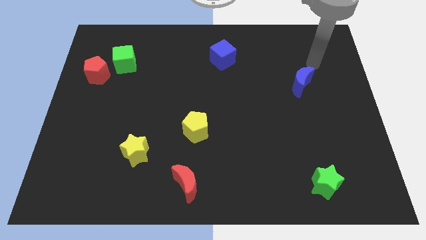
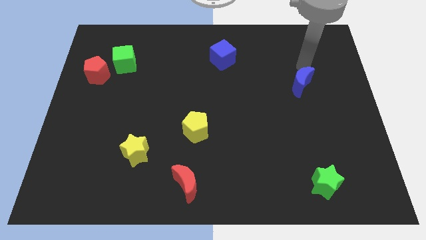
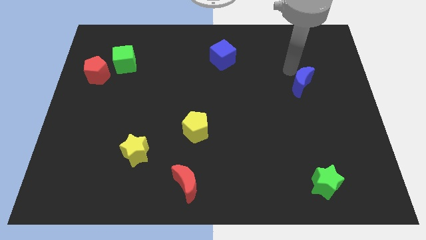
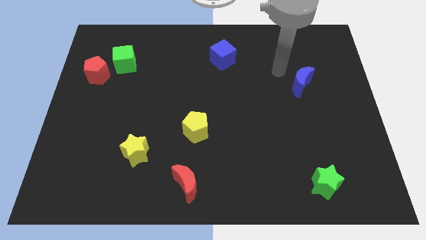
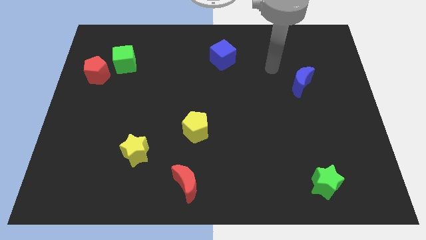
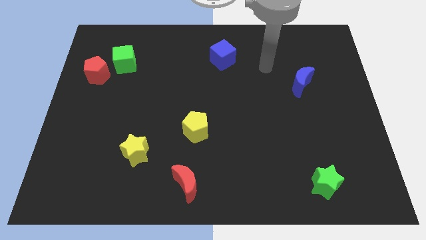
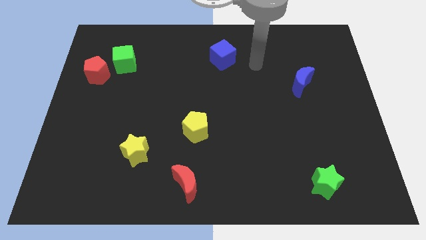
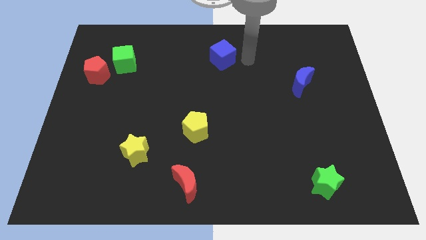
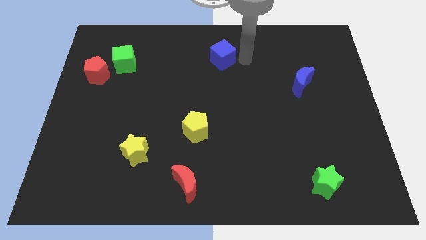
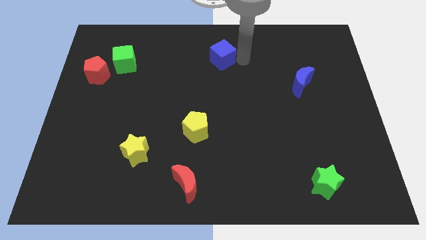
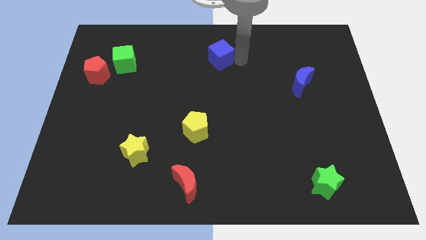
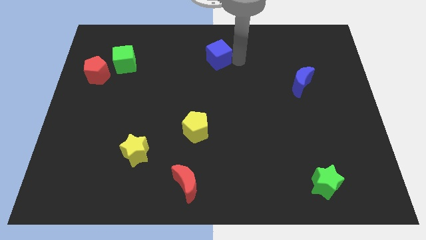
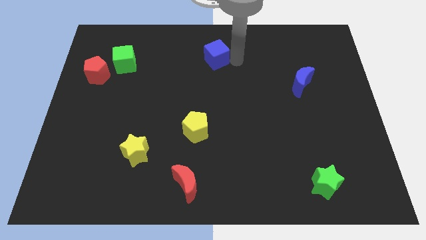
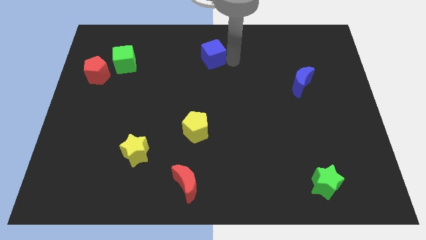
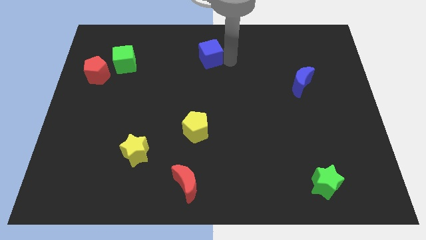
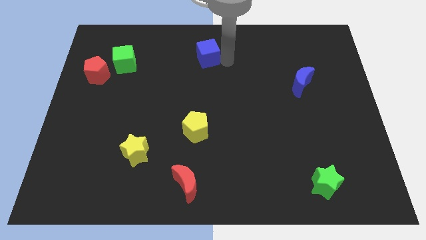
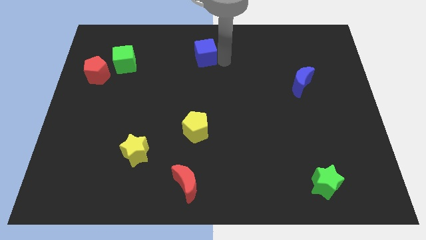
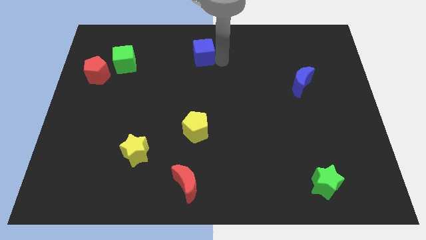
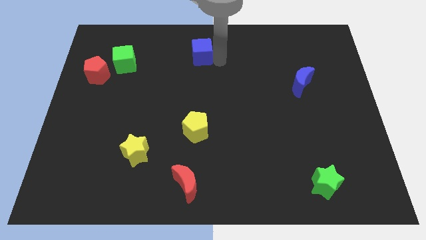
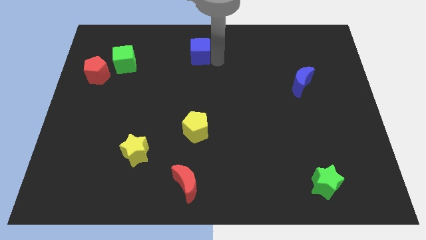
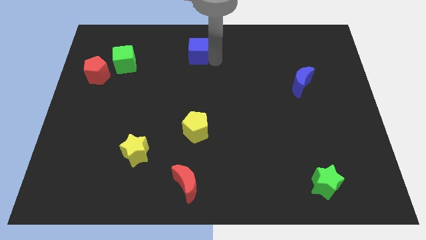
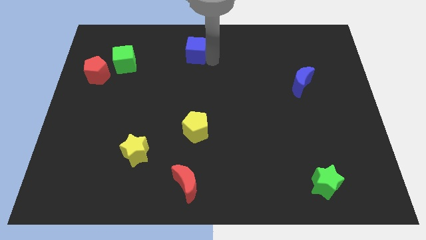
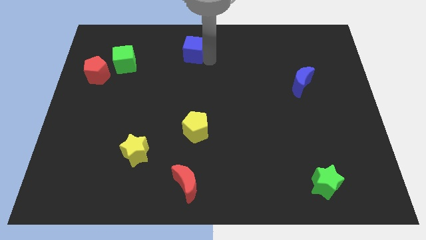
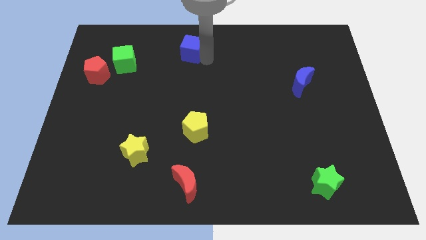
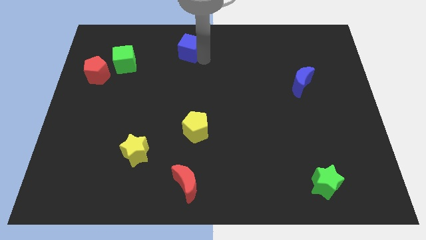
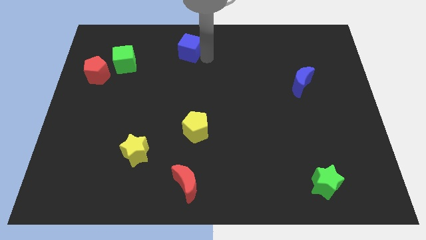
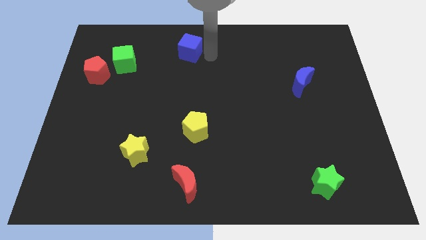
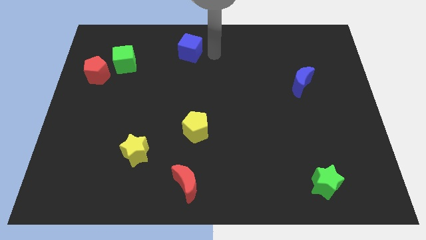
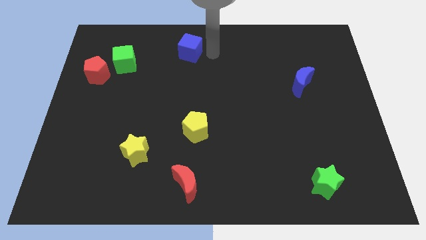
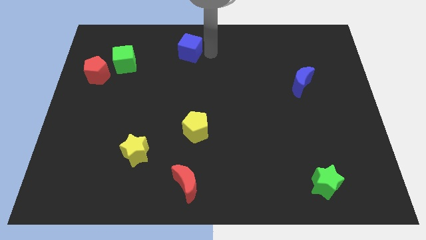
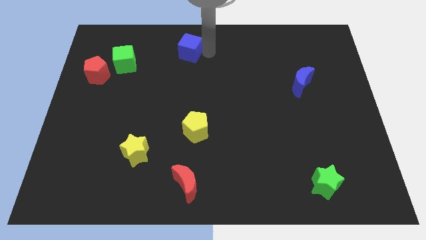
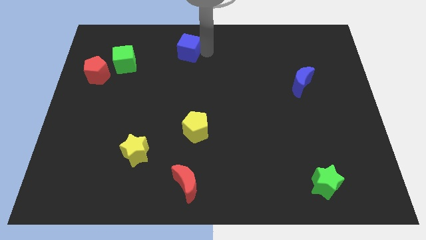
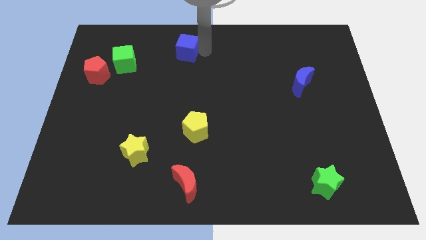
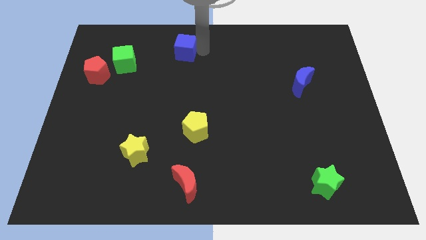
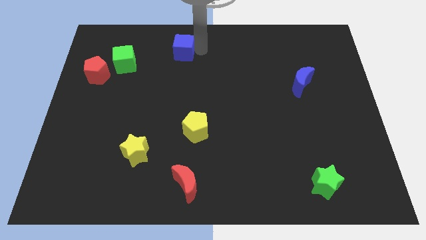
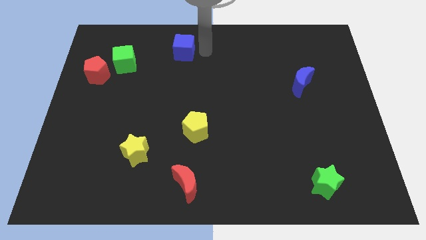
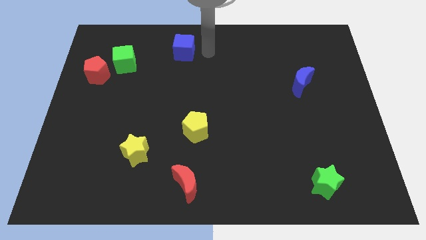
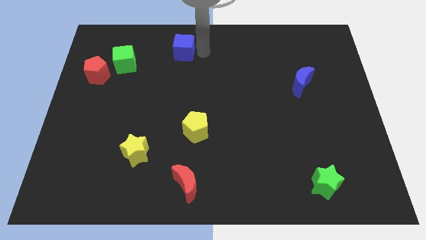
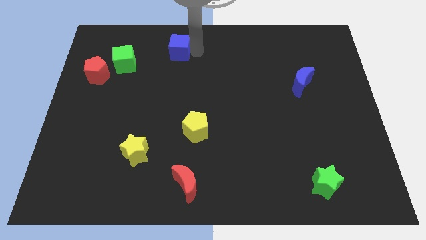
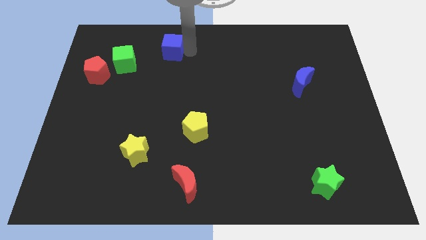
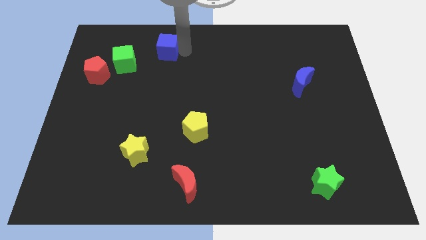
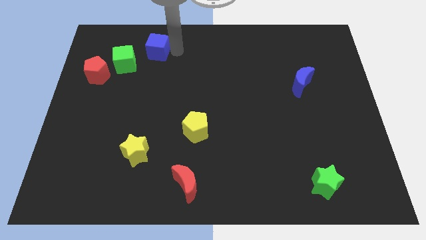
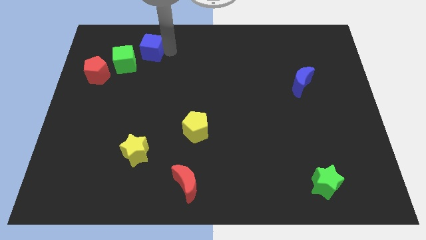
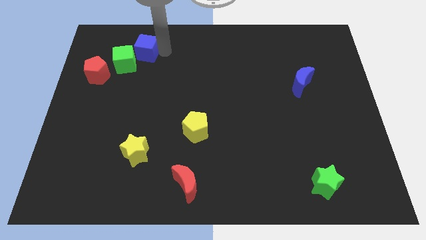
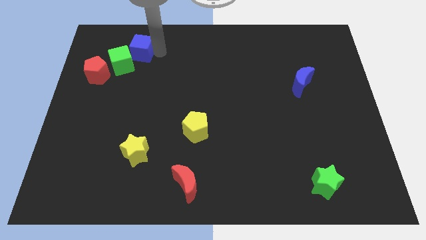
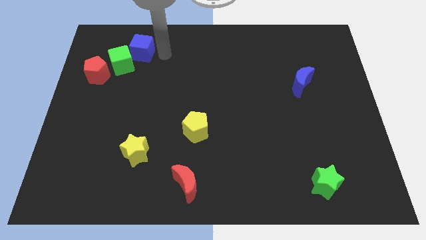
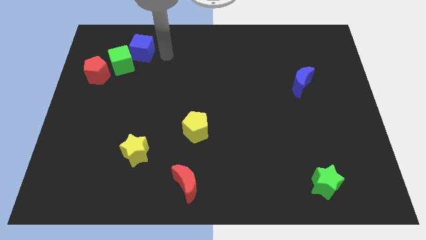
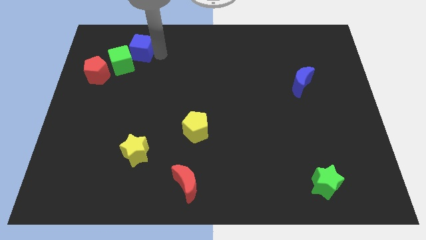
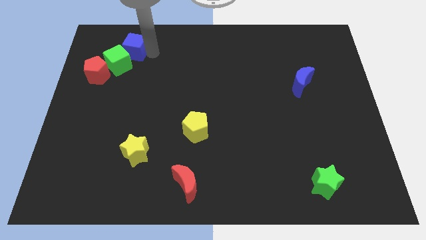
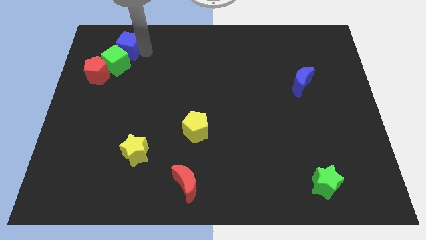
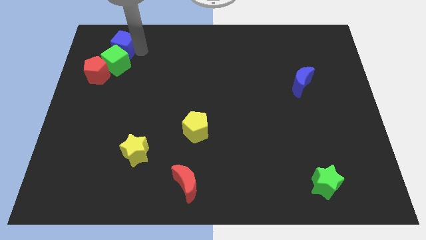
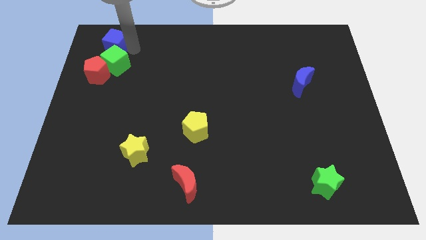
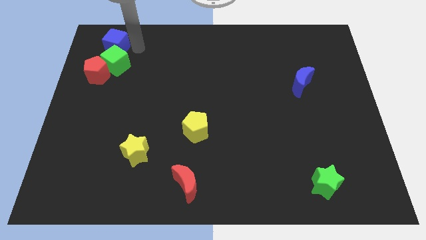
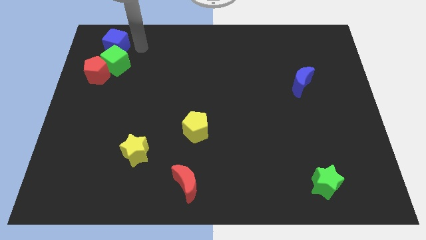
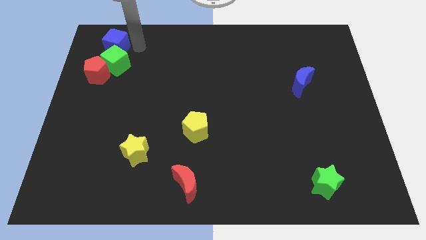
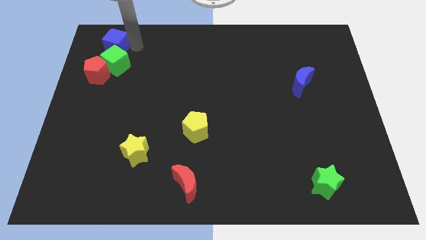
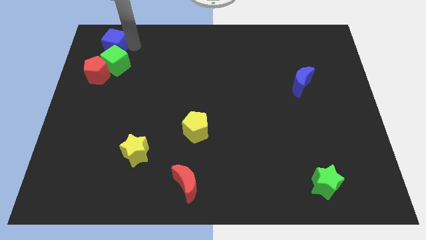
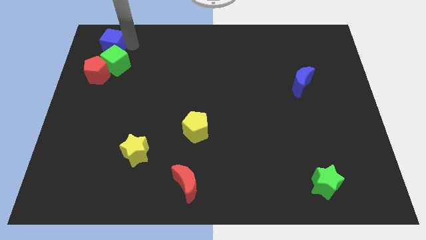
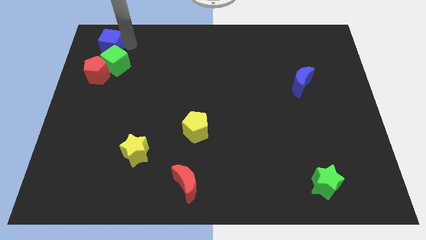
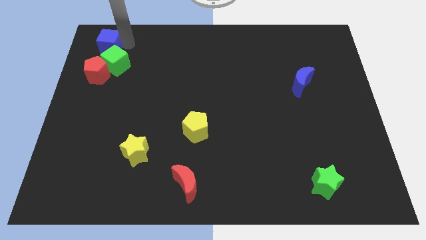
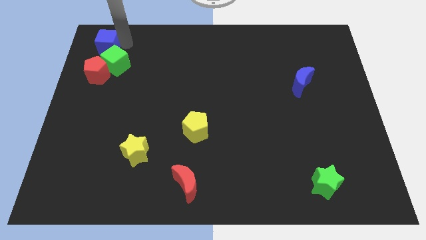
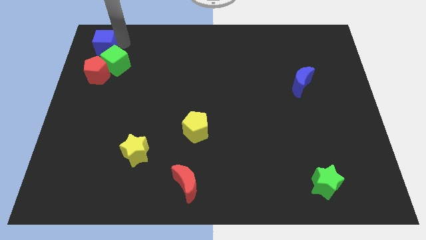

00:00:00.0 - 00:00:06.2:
push the blue cube to the top left corner
